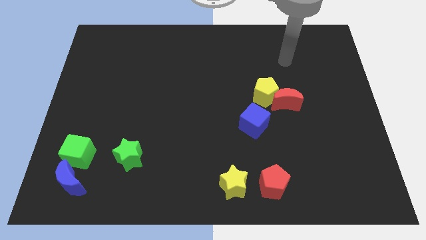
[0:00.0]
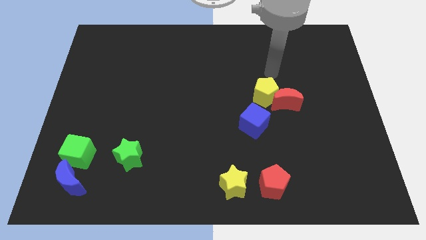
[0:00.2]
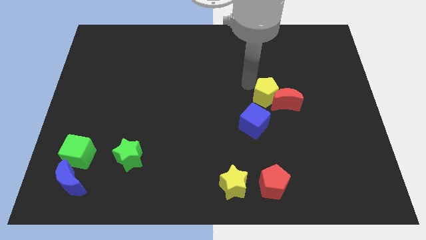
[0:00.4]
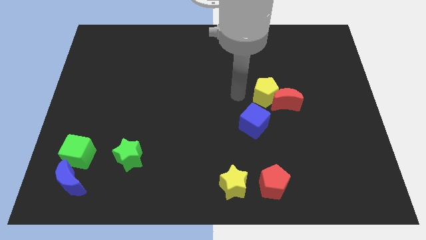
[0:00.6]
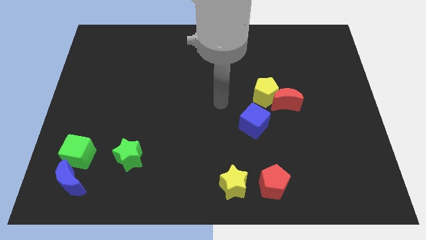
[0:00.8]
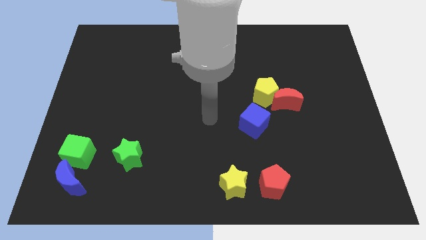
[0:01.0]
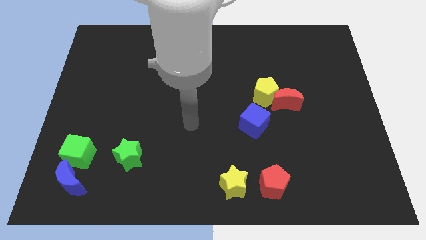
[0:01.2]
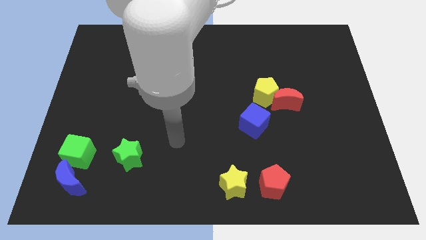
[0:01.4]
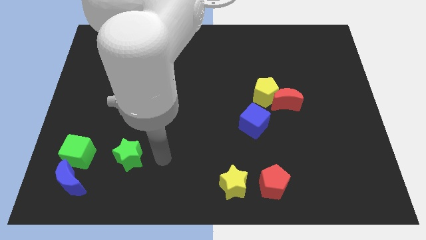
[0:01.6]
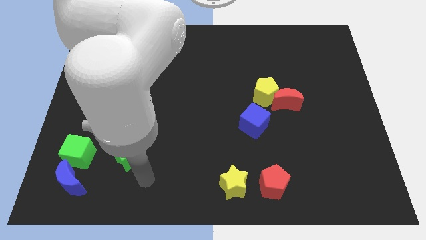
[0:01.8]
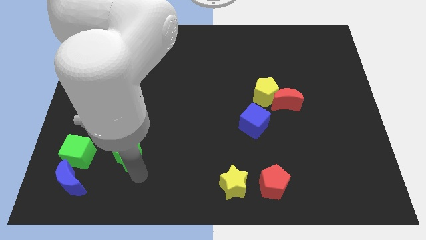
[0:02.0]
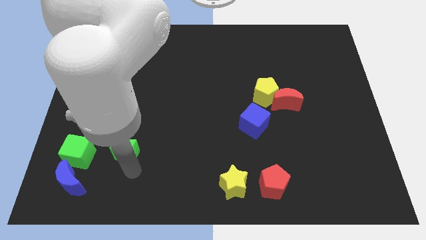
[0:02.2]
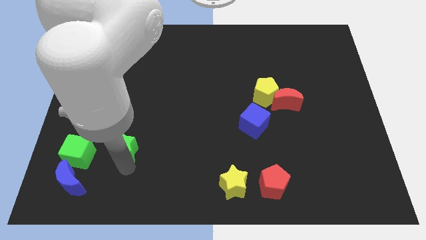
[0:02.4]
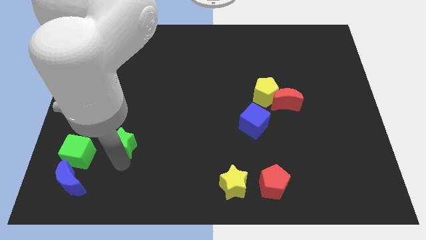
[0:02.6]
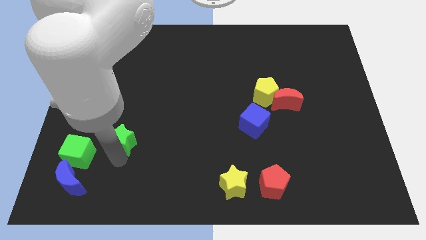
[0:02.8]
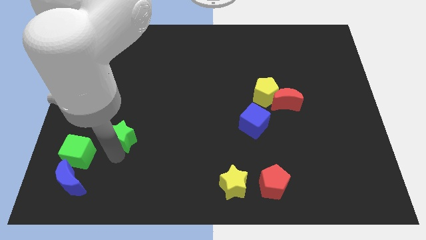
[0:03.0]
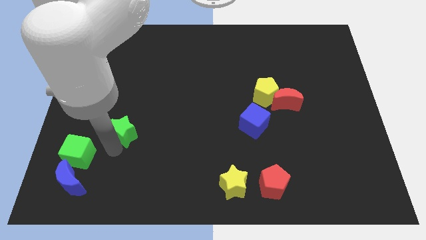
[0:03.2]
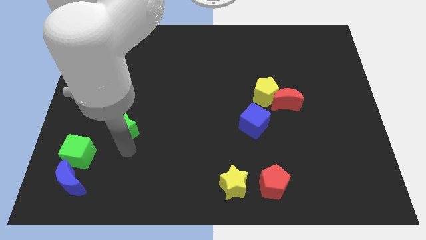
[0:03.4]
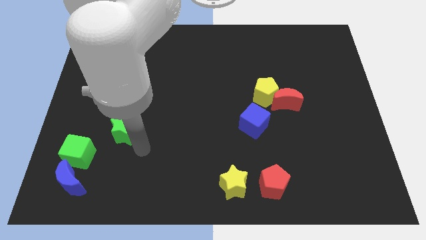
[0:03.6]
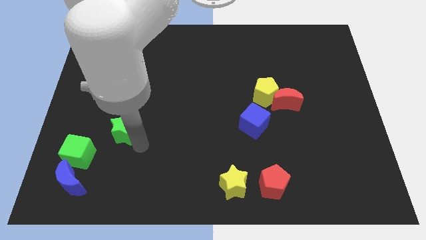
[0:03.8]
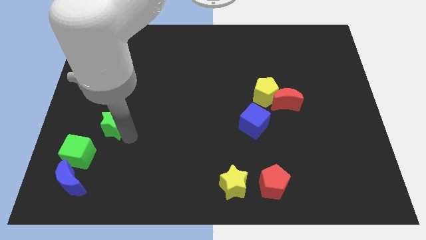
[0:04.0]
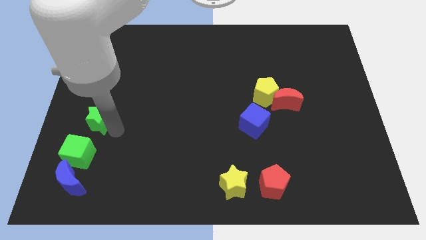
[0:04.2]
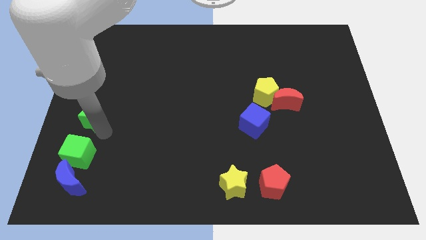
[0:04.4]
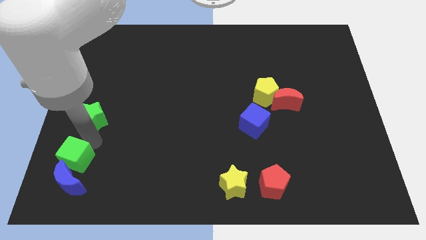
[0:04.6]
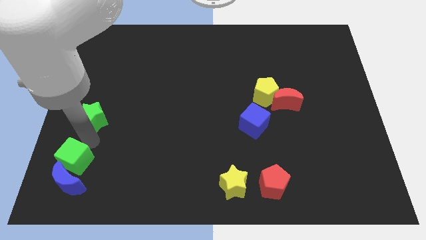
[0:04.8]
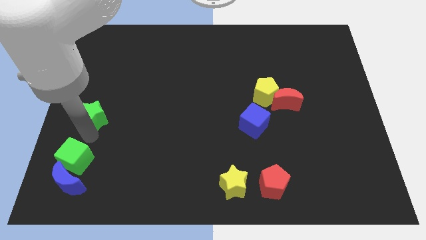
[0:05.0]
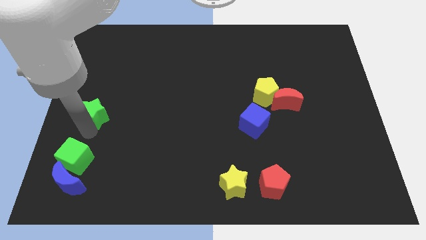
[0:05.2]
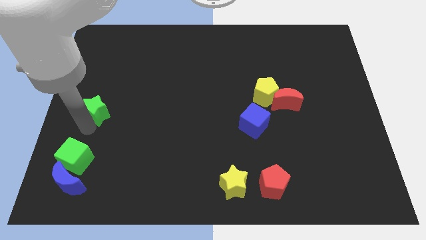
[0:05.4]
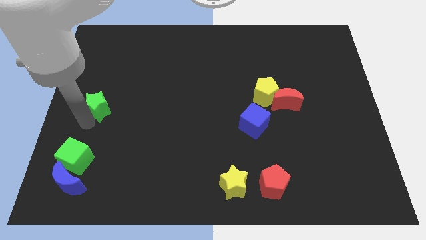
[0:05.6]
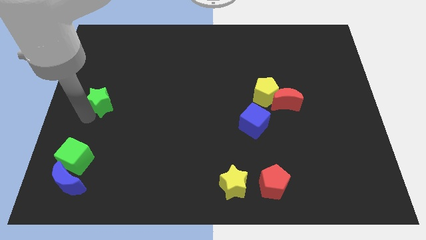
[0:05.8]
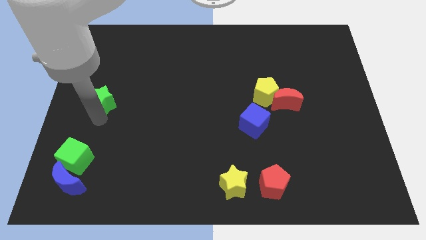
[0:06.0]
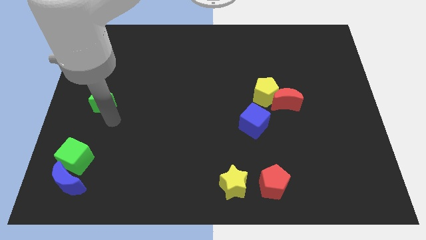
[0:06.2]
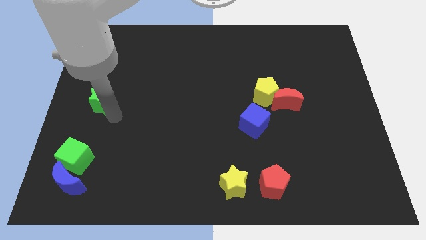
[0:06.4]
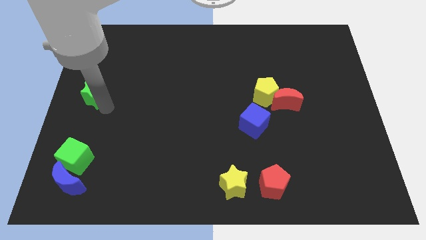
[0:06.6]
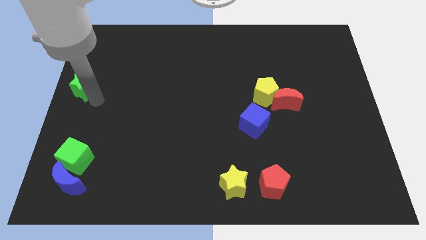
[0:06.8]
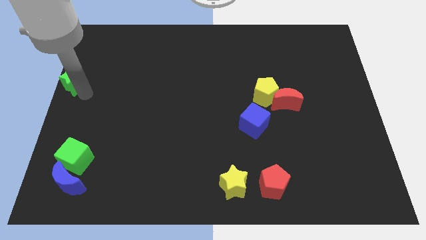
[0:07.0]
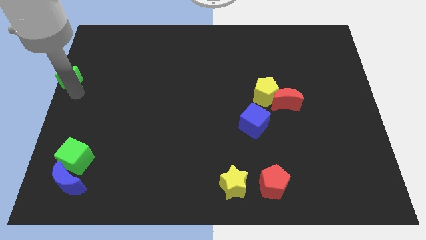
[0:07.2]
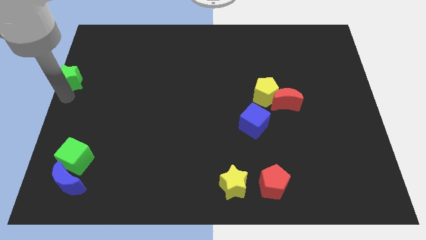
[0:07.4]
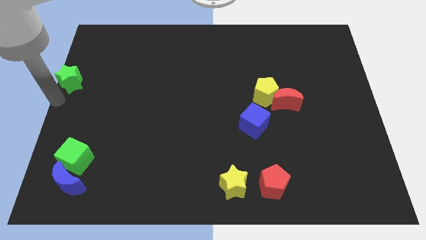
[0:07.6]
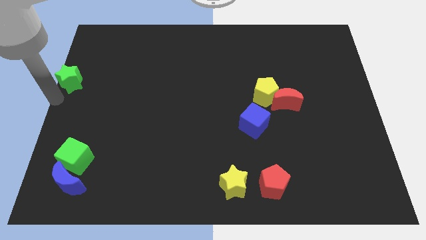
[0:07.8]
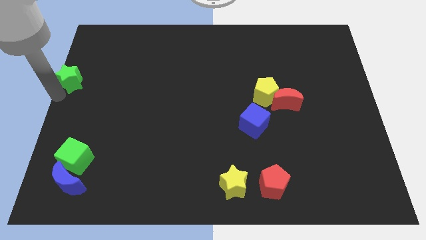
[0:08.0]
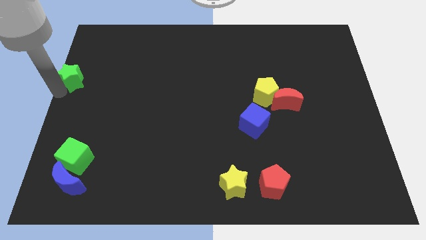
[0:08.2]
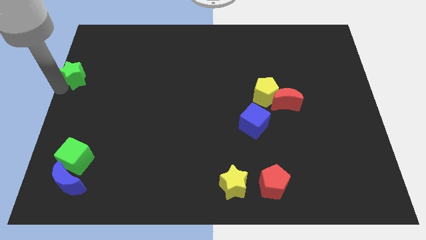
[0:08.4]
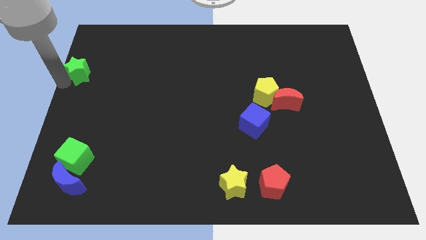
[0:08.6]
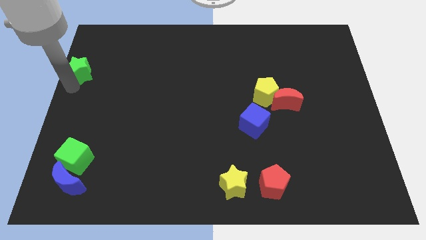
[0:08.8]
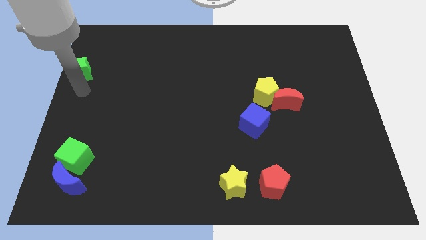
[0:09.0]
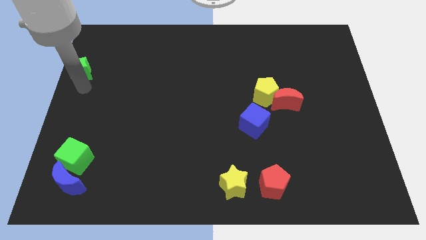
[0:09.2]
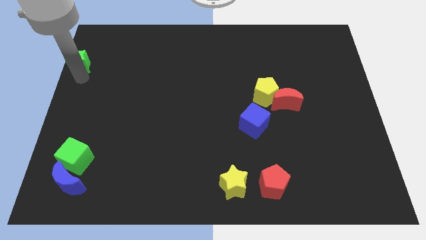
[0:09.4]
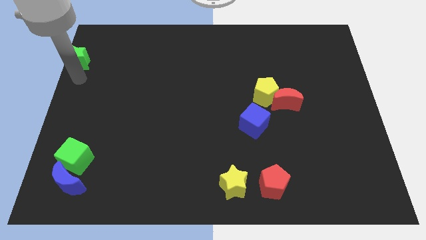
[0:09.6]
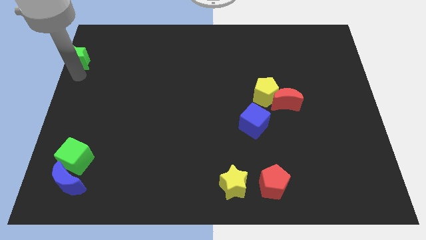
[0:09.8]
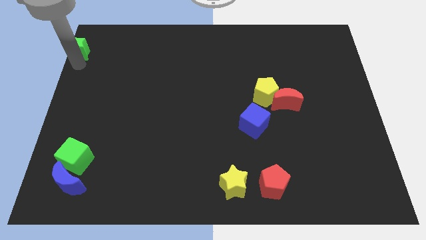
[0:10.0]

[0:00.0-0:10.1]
push the green star to the top left of the board

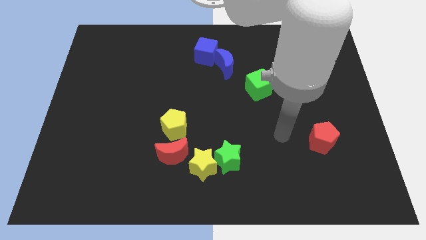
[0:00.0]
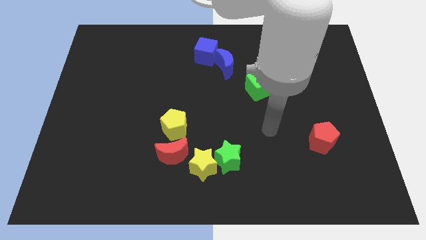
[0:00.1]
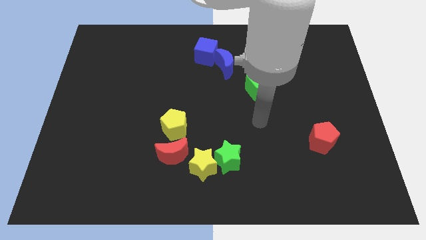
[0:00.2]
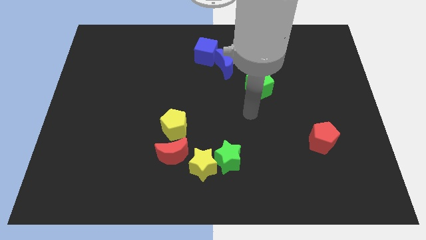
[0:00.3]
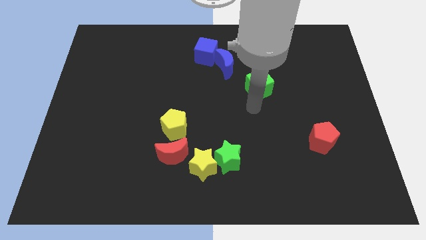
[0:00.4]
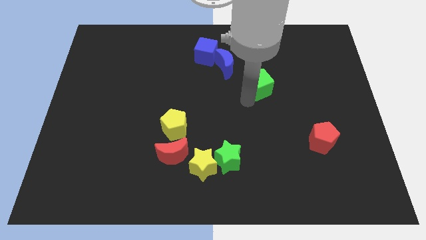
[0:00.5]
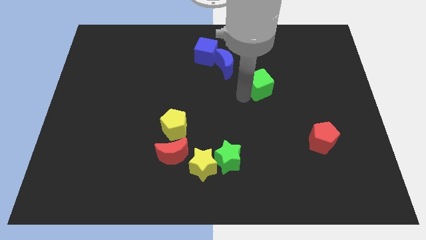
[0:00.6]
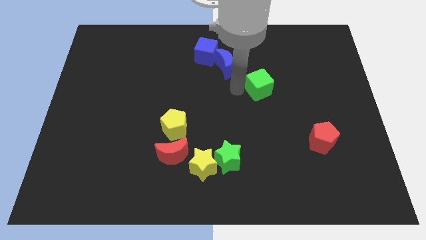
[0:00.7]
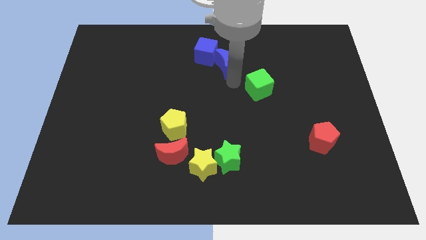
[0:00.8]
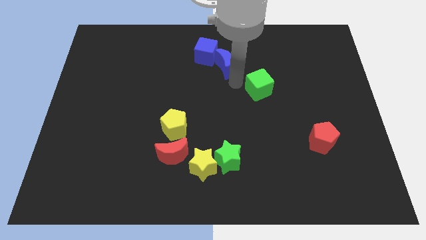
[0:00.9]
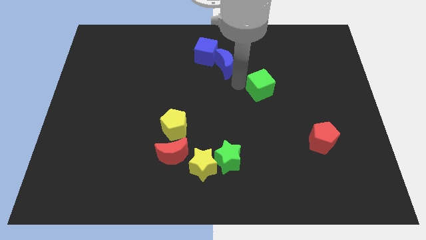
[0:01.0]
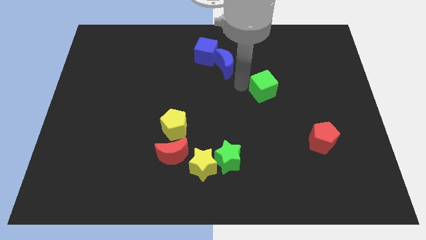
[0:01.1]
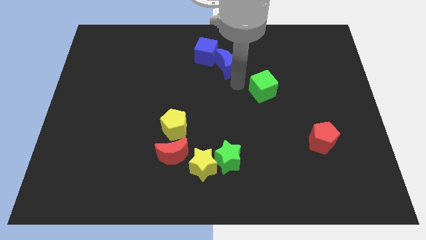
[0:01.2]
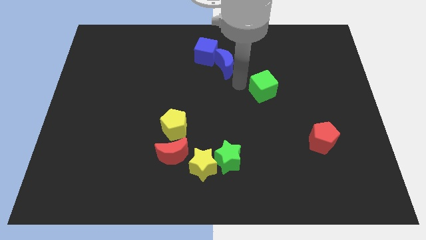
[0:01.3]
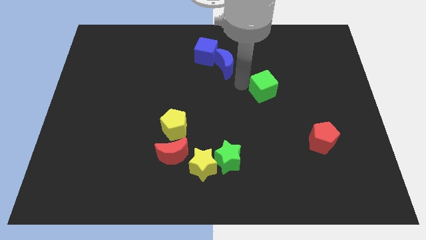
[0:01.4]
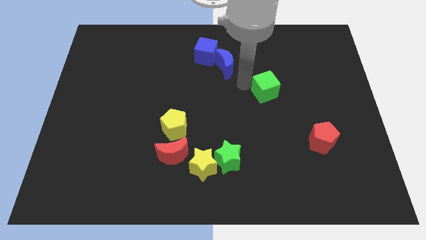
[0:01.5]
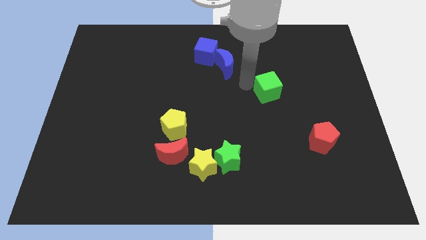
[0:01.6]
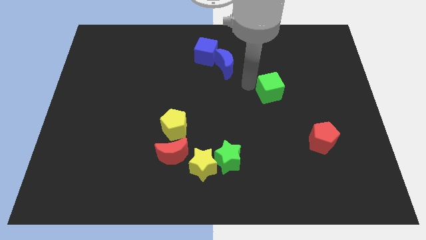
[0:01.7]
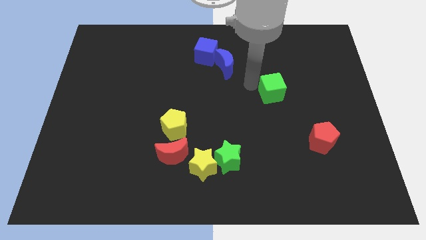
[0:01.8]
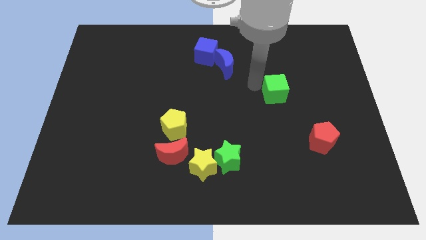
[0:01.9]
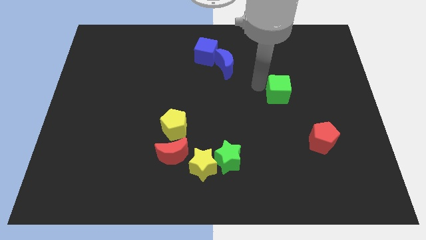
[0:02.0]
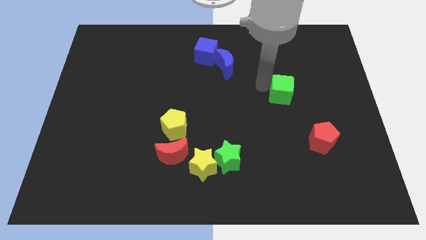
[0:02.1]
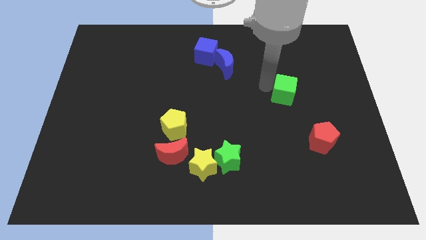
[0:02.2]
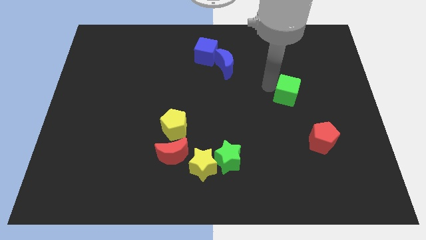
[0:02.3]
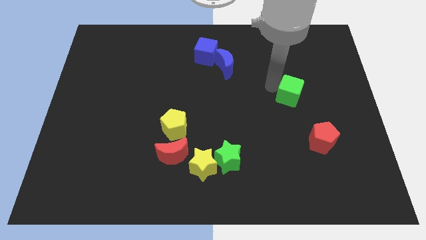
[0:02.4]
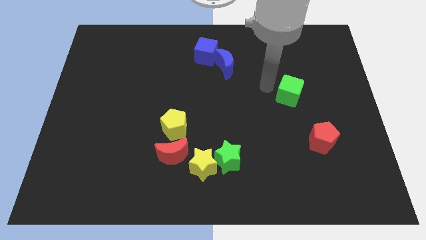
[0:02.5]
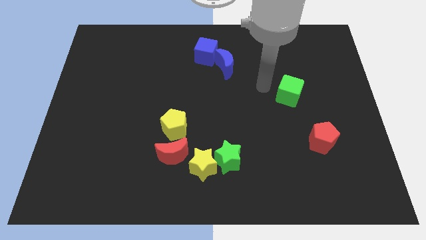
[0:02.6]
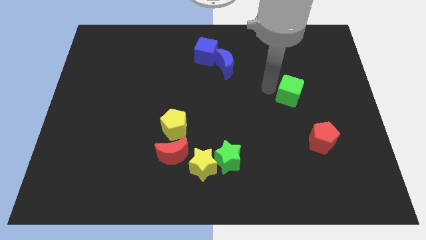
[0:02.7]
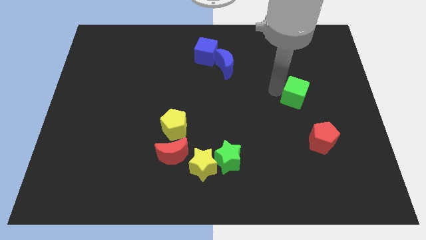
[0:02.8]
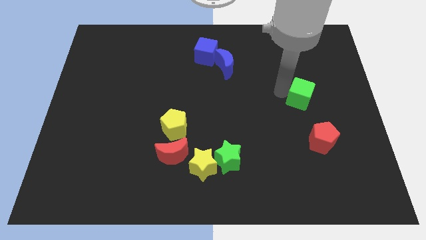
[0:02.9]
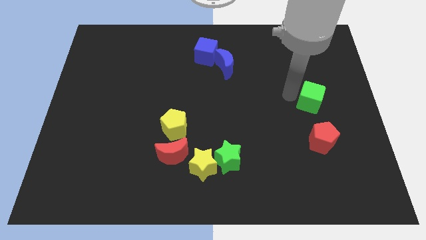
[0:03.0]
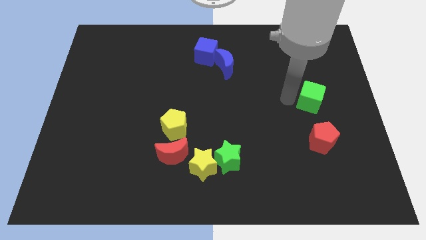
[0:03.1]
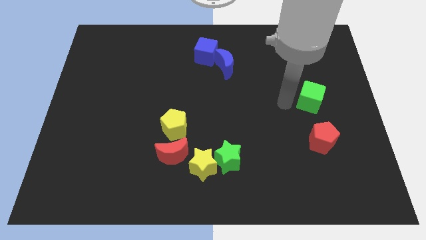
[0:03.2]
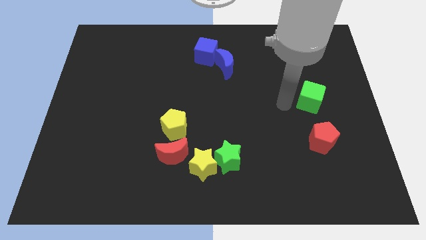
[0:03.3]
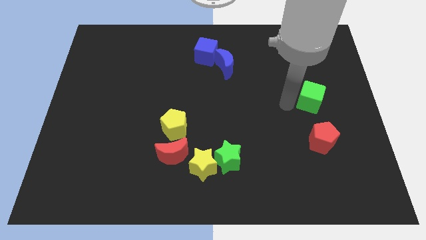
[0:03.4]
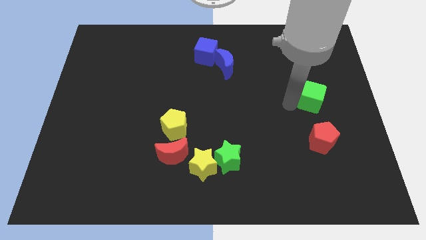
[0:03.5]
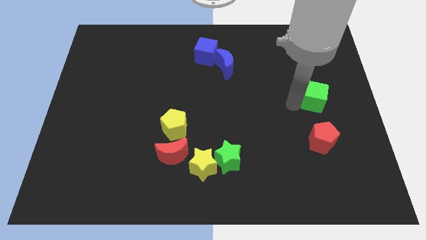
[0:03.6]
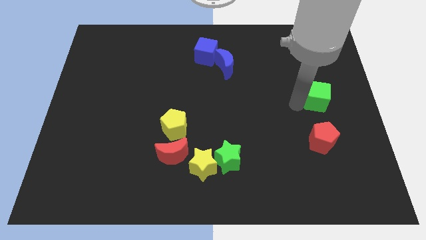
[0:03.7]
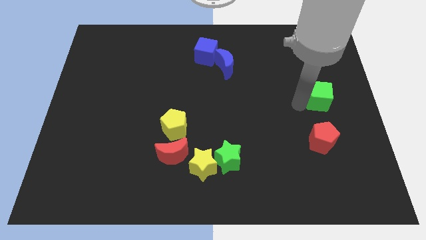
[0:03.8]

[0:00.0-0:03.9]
slide the green cube to the right side of the board
